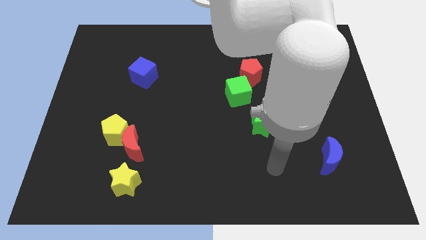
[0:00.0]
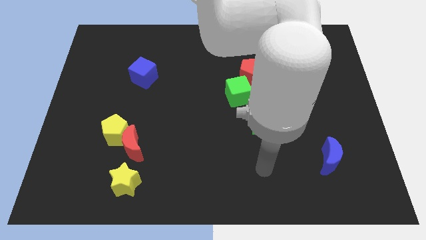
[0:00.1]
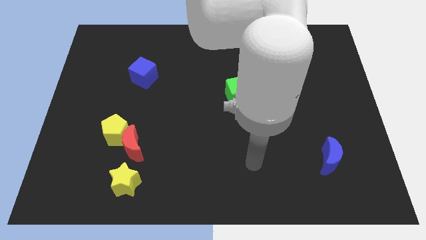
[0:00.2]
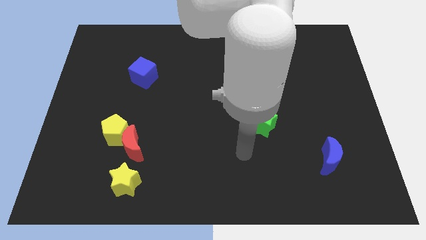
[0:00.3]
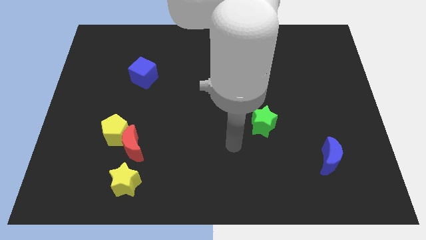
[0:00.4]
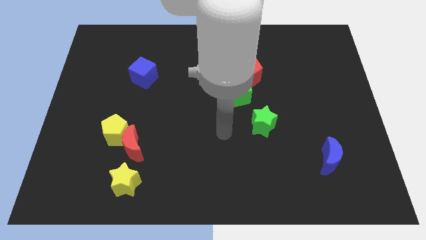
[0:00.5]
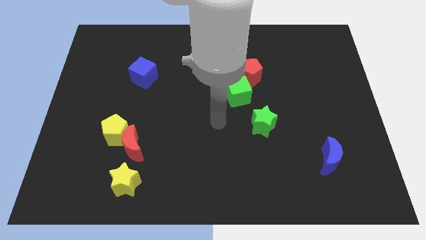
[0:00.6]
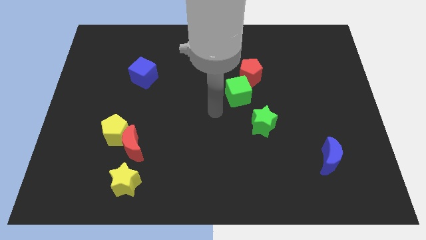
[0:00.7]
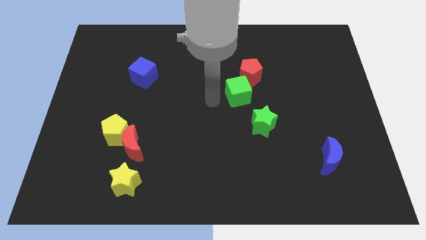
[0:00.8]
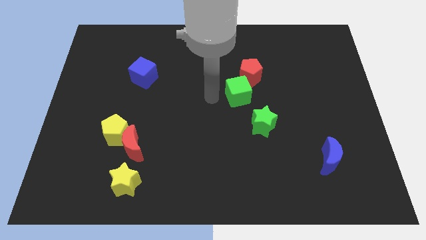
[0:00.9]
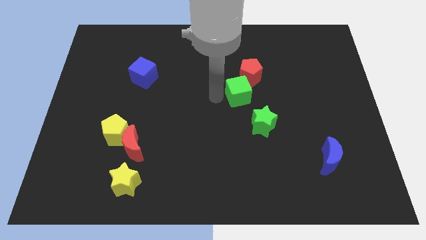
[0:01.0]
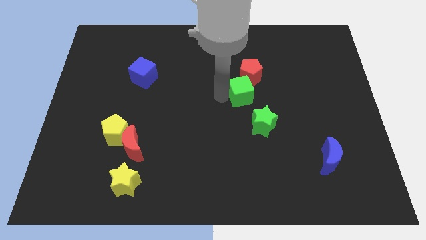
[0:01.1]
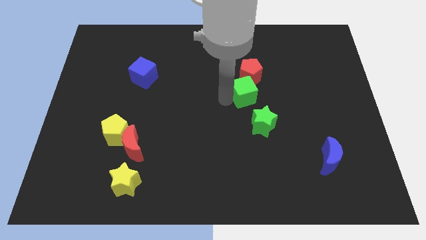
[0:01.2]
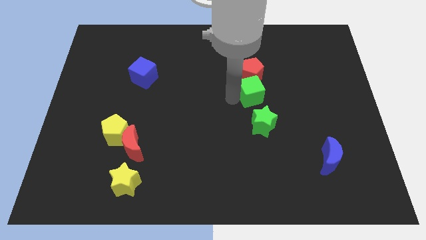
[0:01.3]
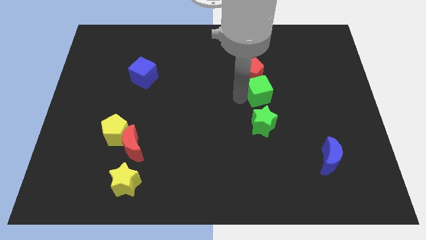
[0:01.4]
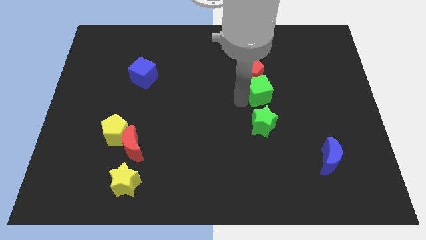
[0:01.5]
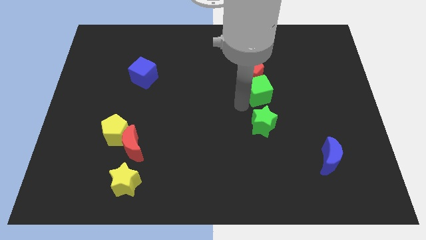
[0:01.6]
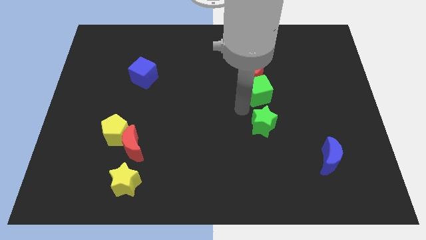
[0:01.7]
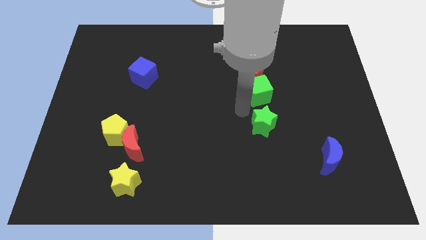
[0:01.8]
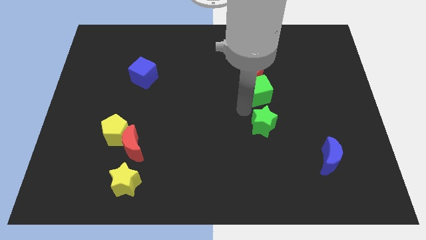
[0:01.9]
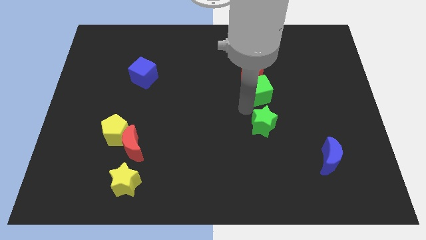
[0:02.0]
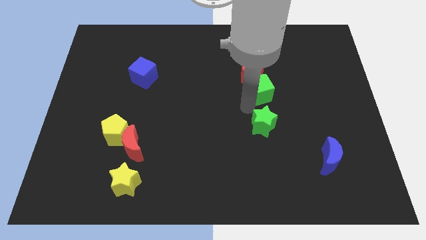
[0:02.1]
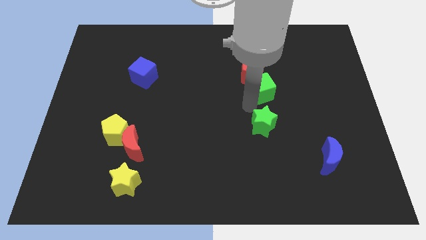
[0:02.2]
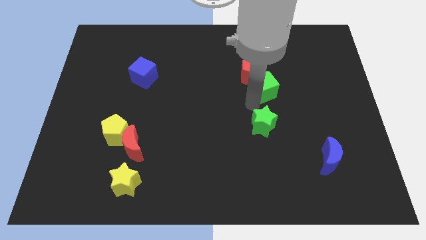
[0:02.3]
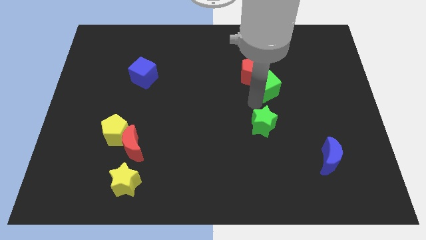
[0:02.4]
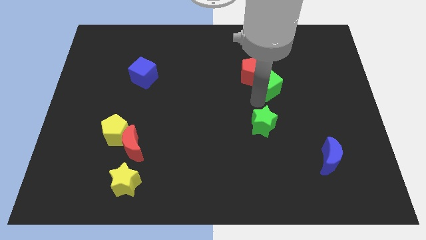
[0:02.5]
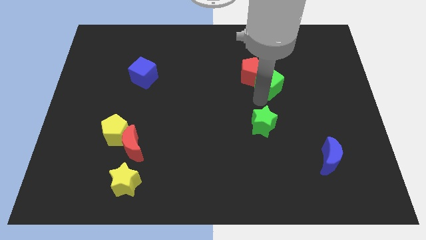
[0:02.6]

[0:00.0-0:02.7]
slide the green cube diagonally up and right a bit

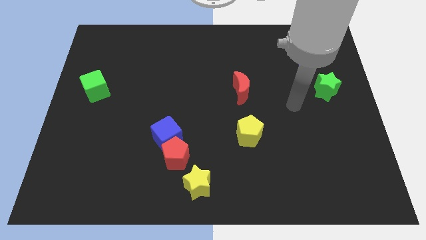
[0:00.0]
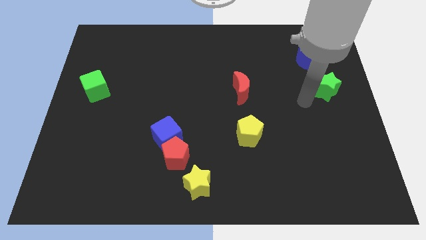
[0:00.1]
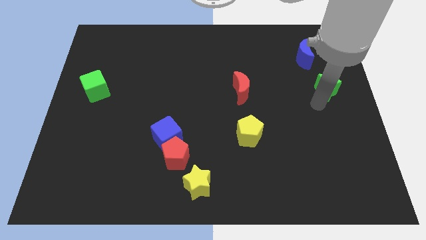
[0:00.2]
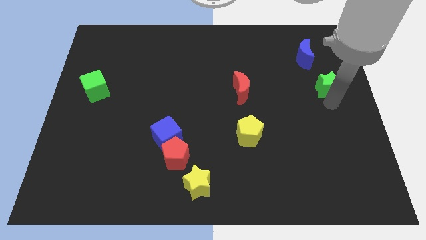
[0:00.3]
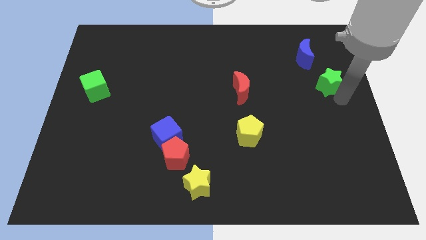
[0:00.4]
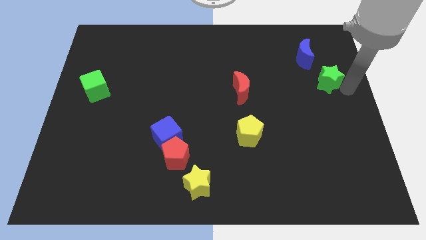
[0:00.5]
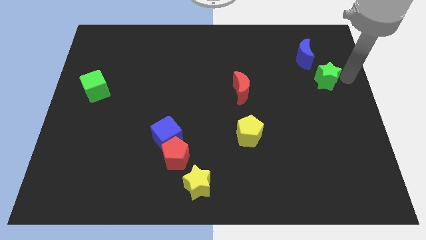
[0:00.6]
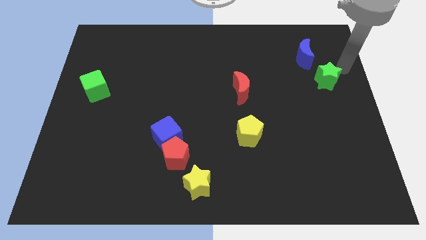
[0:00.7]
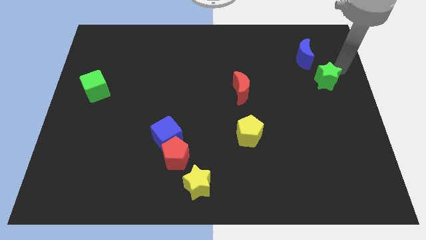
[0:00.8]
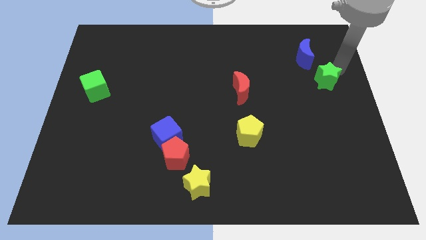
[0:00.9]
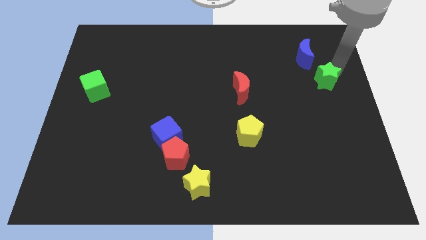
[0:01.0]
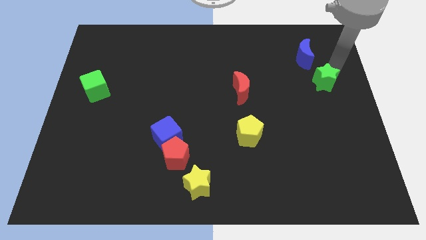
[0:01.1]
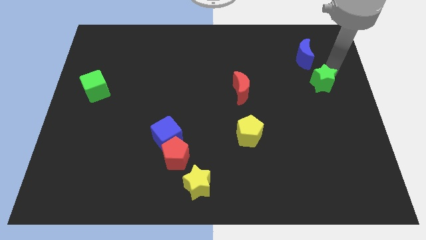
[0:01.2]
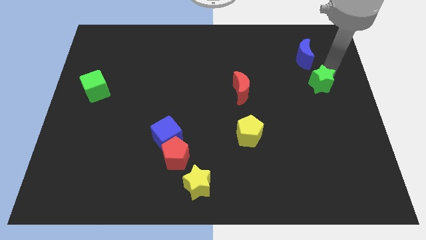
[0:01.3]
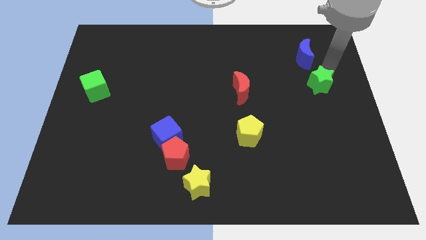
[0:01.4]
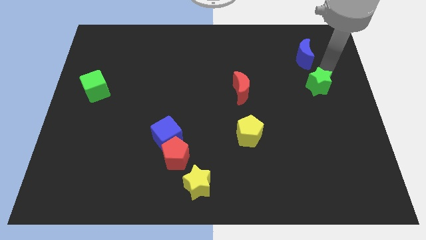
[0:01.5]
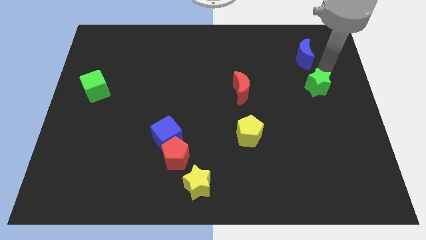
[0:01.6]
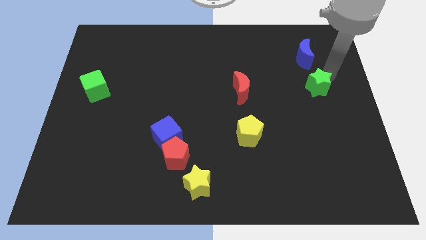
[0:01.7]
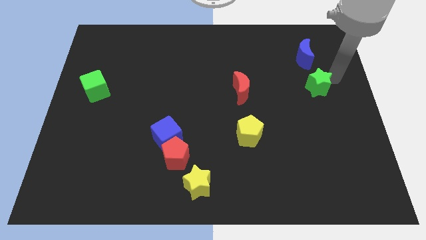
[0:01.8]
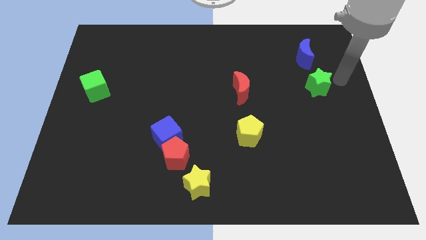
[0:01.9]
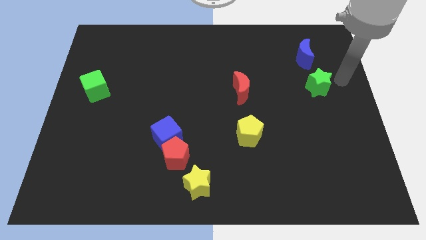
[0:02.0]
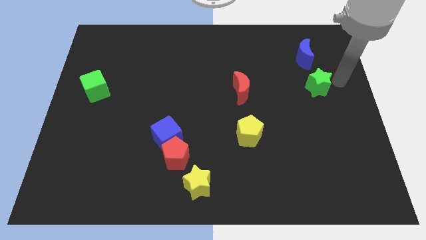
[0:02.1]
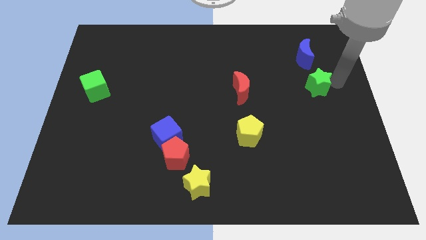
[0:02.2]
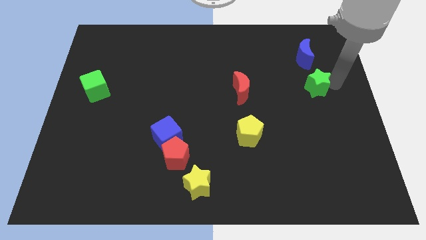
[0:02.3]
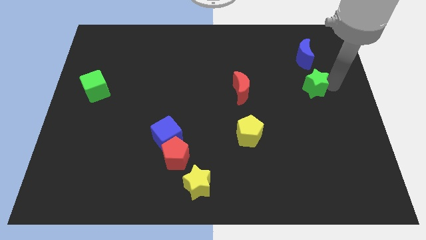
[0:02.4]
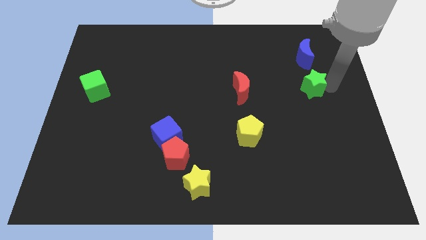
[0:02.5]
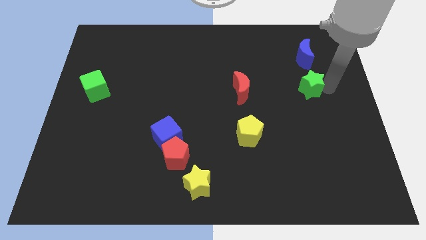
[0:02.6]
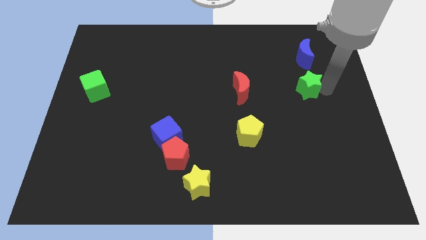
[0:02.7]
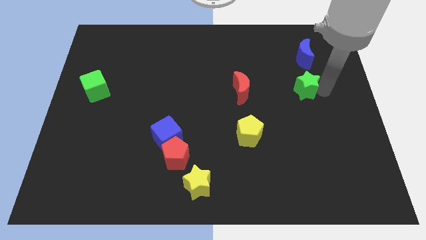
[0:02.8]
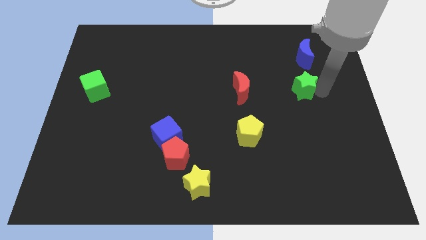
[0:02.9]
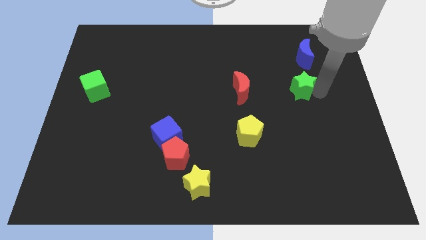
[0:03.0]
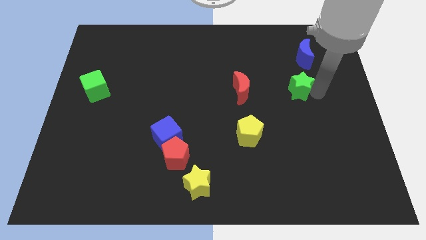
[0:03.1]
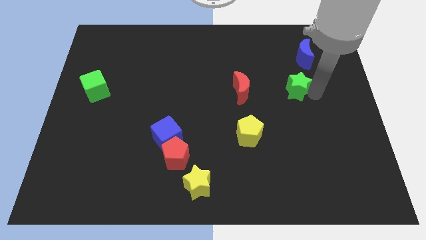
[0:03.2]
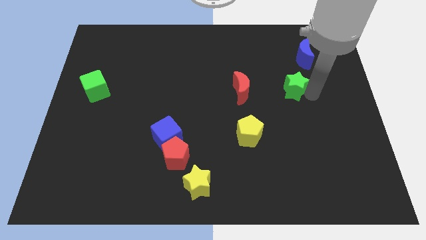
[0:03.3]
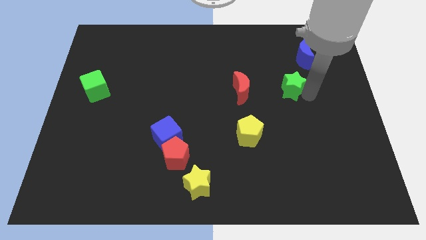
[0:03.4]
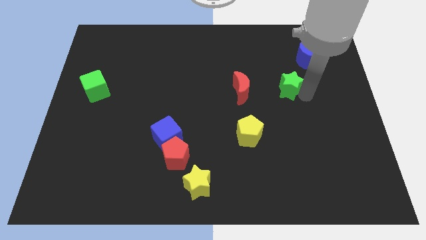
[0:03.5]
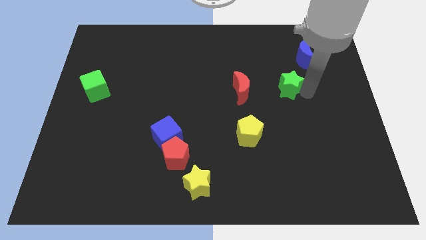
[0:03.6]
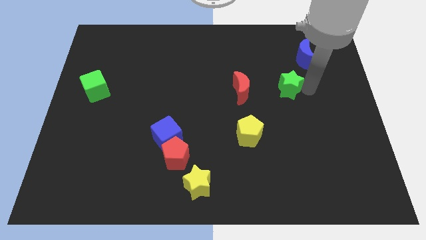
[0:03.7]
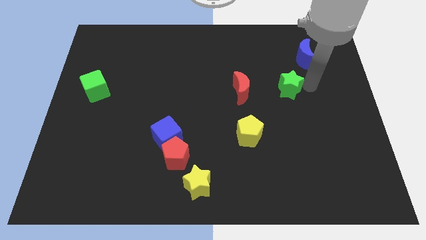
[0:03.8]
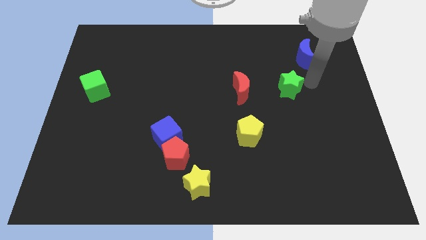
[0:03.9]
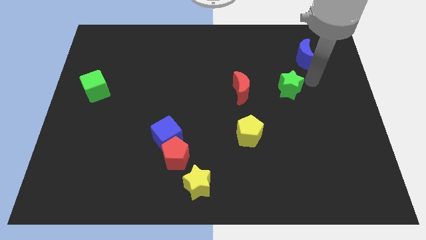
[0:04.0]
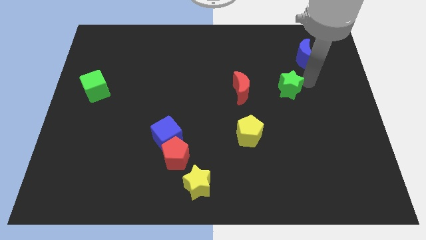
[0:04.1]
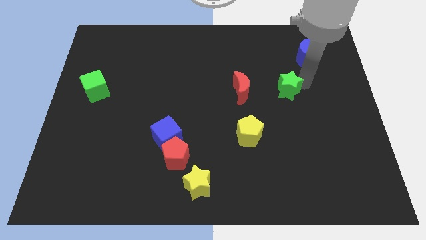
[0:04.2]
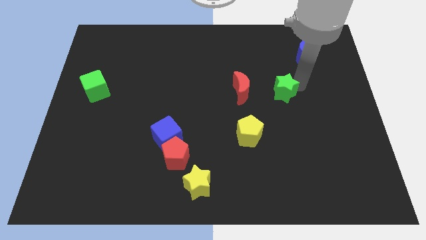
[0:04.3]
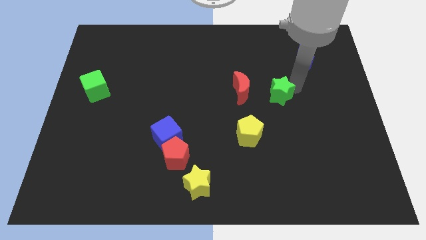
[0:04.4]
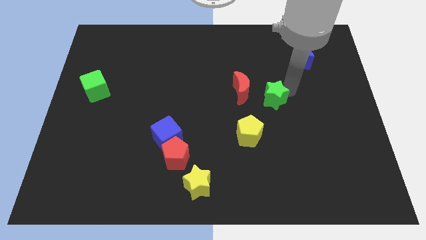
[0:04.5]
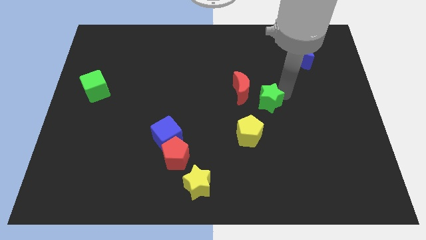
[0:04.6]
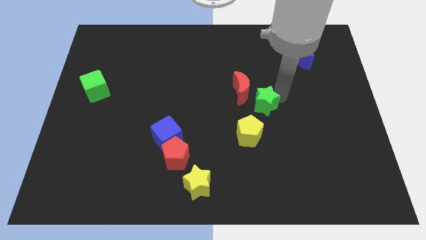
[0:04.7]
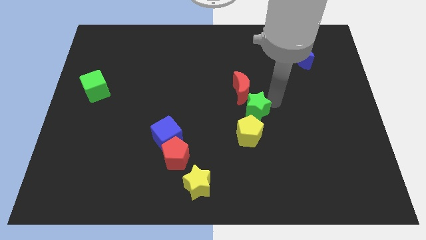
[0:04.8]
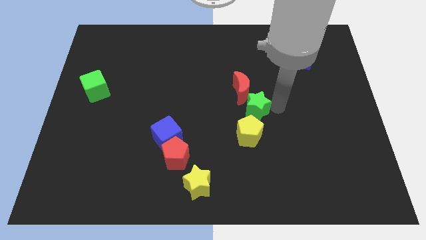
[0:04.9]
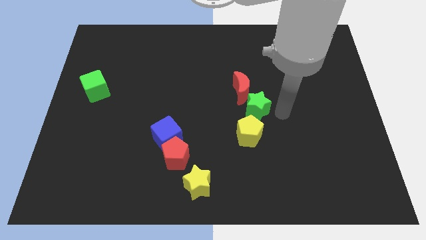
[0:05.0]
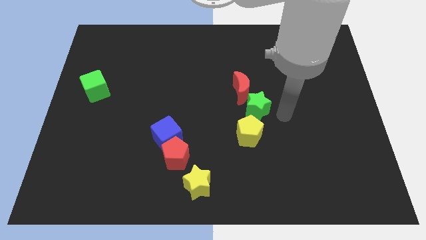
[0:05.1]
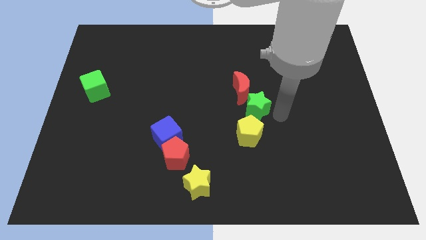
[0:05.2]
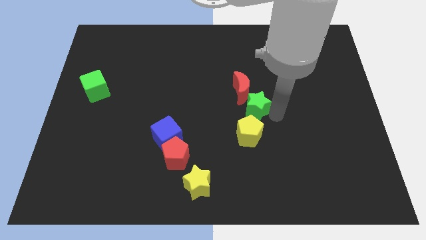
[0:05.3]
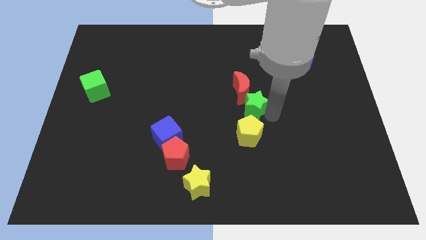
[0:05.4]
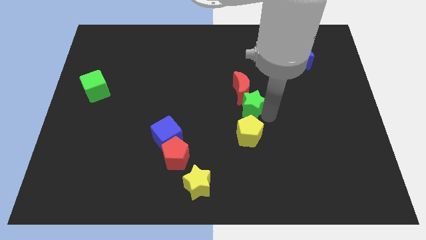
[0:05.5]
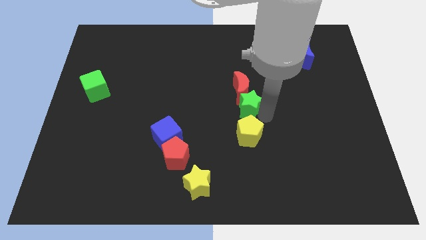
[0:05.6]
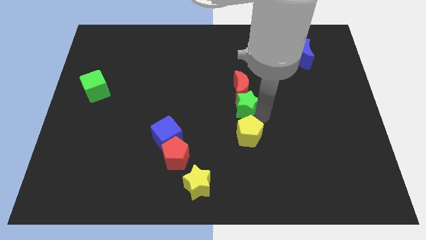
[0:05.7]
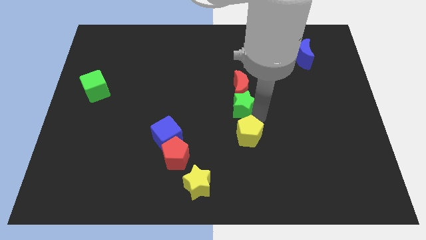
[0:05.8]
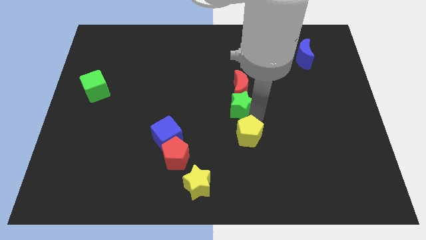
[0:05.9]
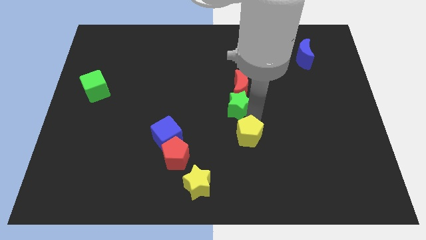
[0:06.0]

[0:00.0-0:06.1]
push the green star to the left
